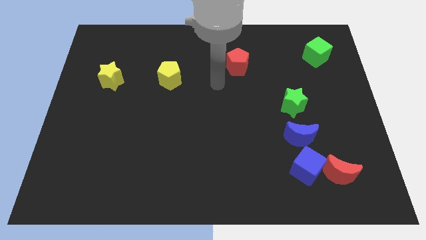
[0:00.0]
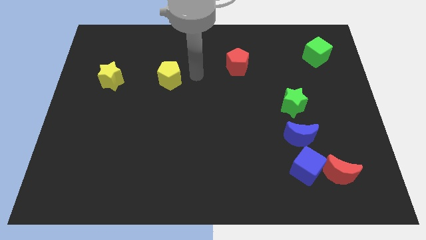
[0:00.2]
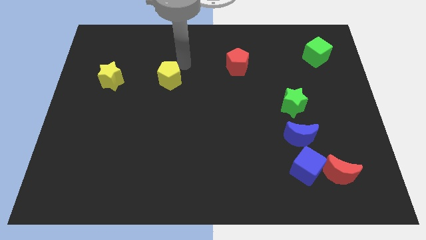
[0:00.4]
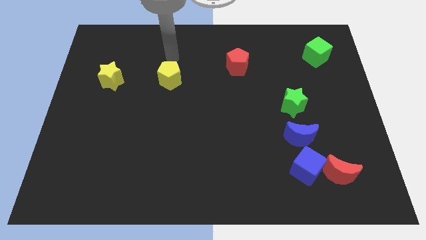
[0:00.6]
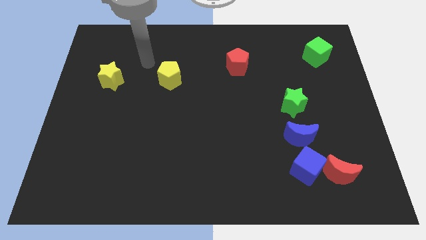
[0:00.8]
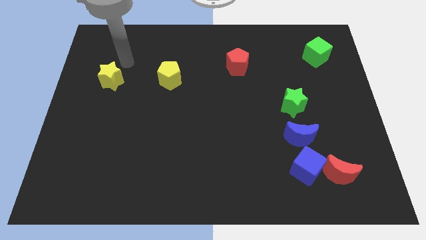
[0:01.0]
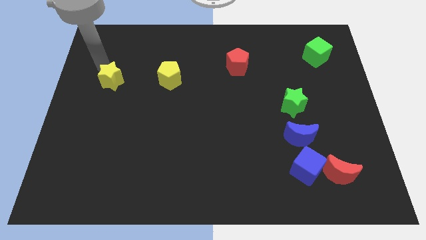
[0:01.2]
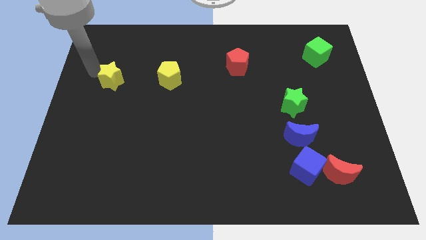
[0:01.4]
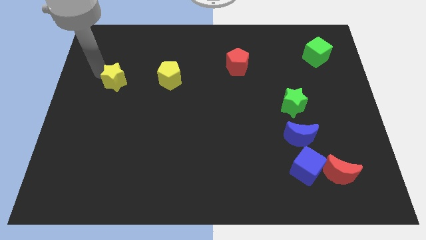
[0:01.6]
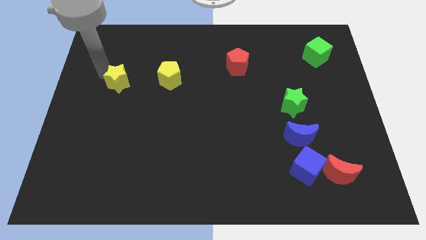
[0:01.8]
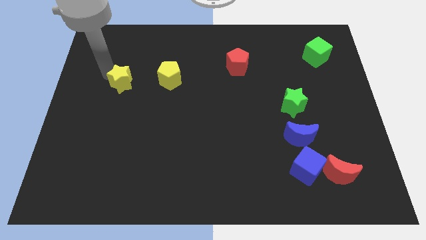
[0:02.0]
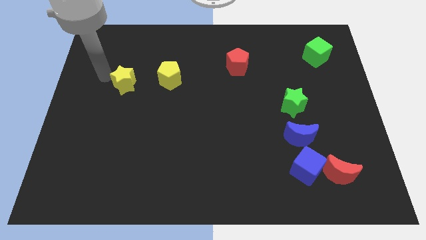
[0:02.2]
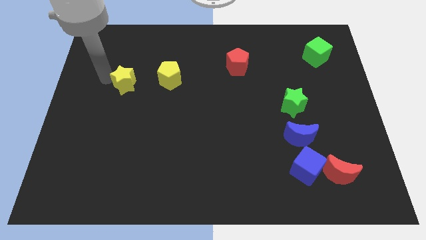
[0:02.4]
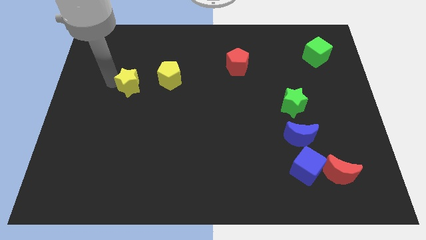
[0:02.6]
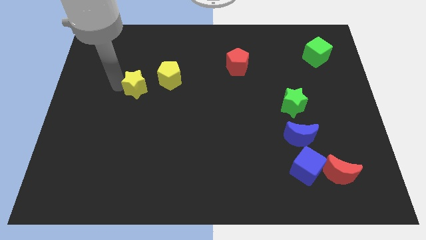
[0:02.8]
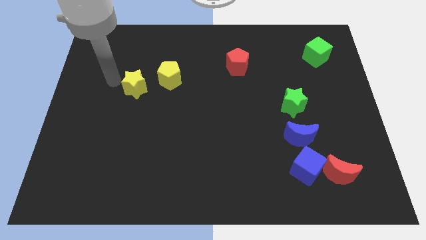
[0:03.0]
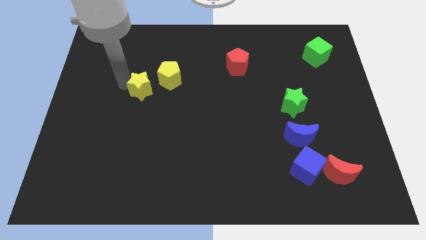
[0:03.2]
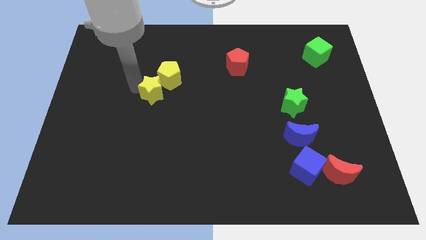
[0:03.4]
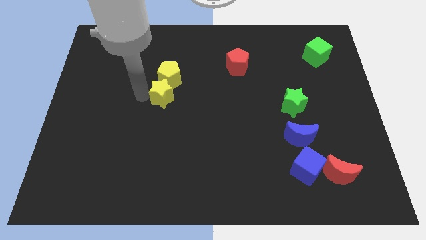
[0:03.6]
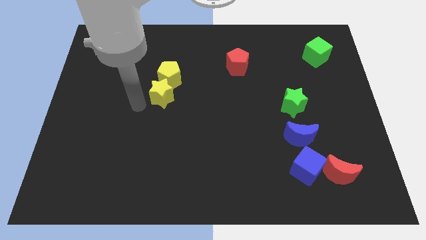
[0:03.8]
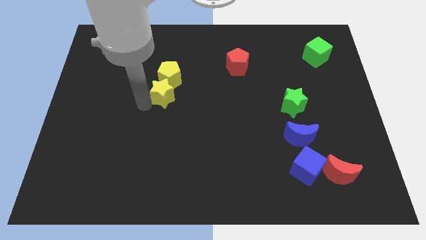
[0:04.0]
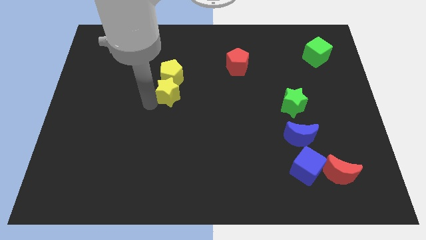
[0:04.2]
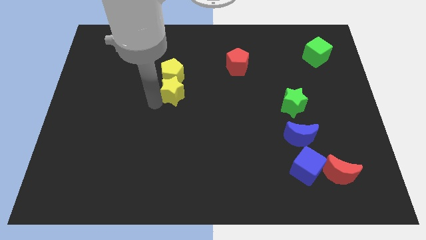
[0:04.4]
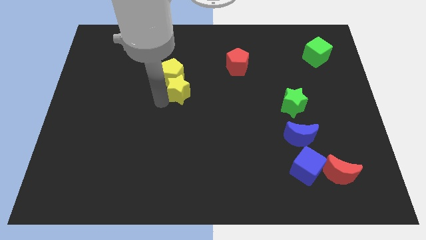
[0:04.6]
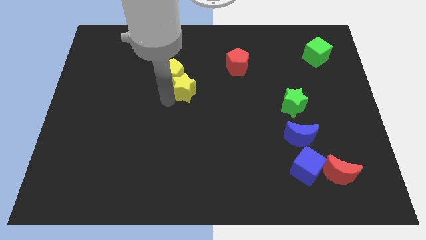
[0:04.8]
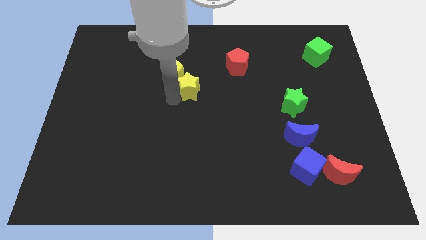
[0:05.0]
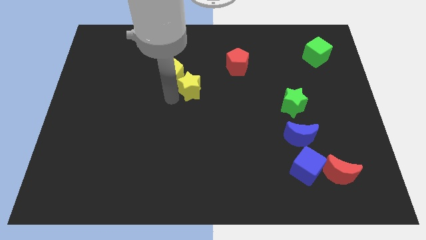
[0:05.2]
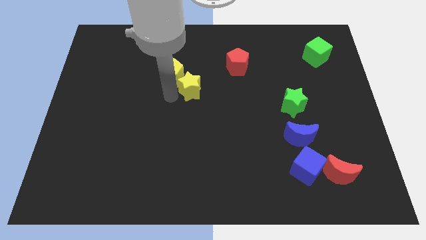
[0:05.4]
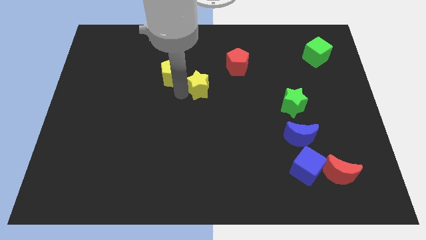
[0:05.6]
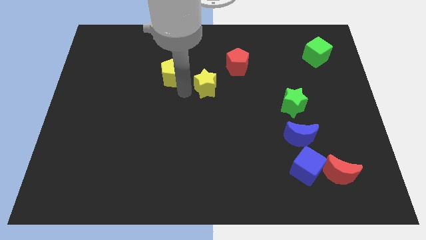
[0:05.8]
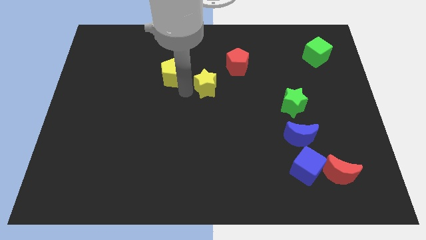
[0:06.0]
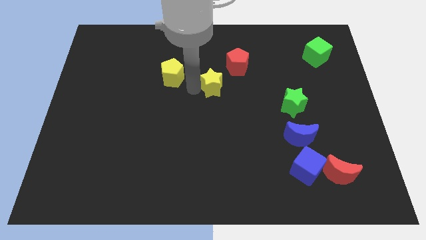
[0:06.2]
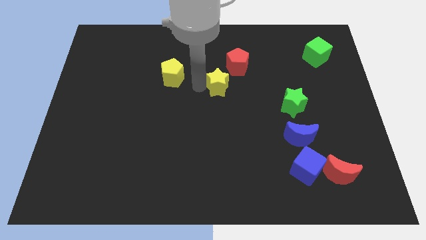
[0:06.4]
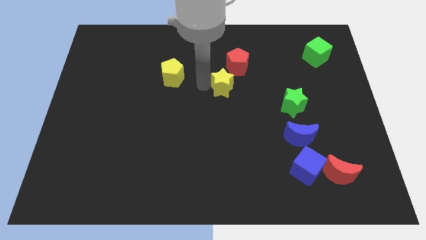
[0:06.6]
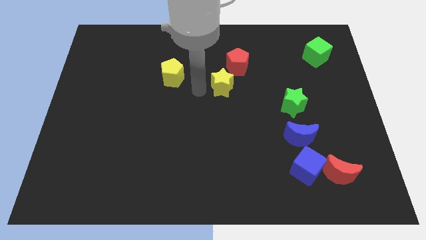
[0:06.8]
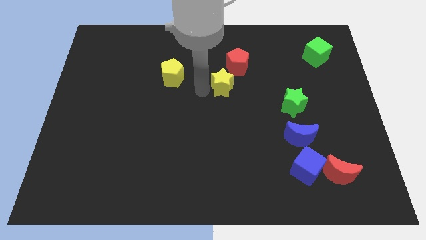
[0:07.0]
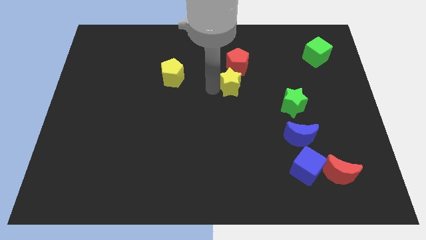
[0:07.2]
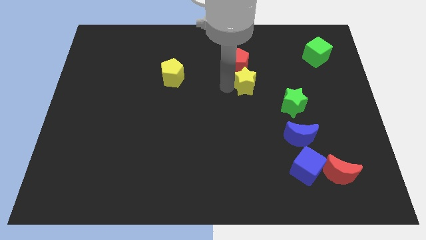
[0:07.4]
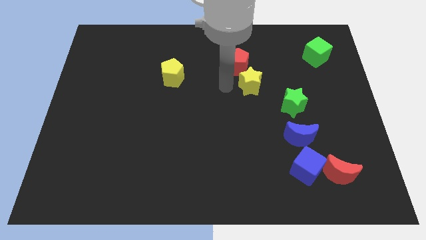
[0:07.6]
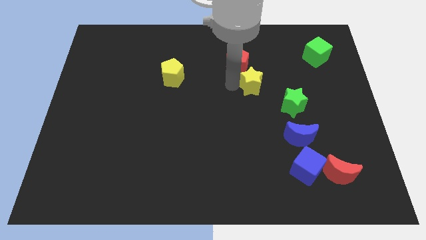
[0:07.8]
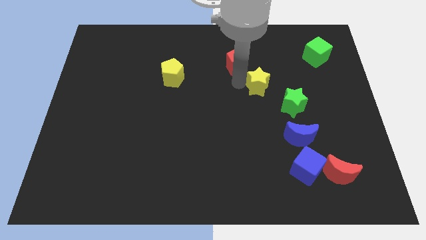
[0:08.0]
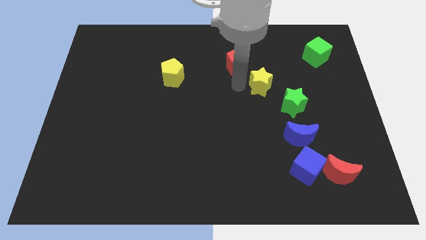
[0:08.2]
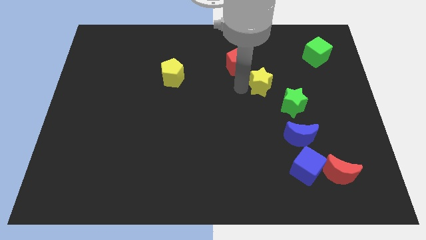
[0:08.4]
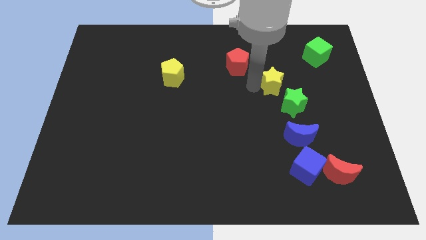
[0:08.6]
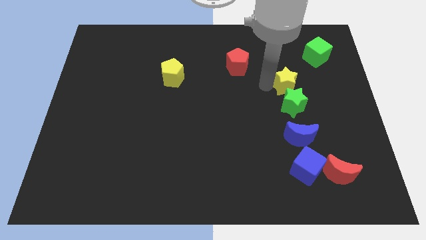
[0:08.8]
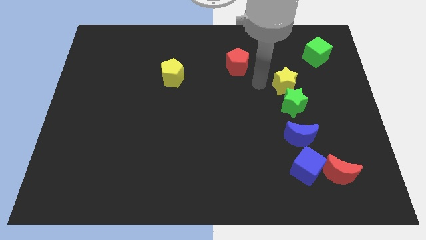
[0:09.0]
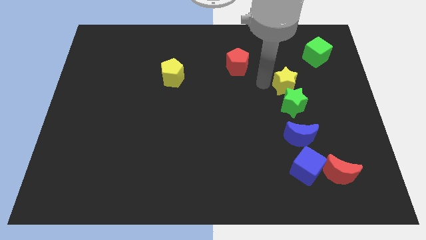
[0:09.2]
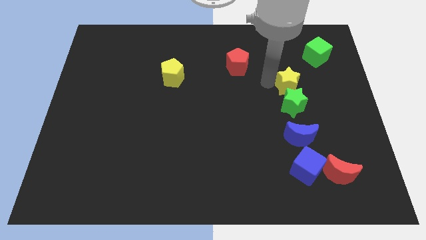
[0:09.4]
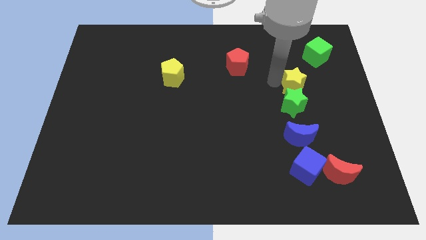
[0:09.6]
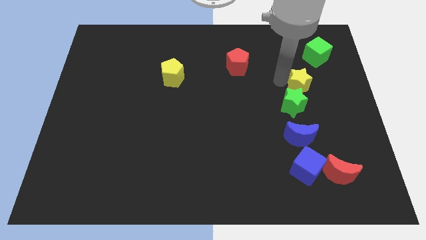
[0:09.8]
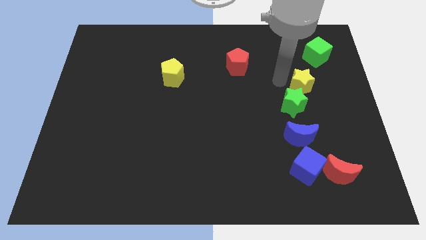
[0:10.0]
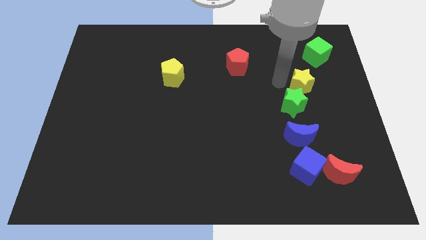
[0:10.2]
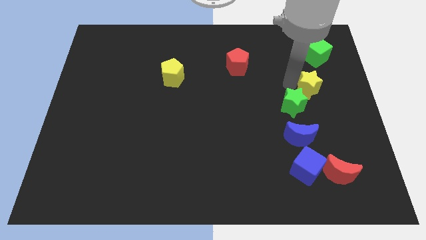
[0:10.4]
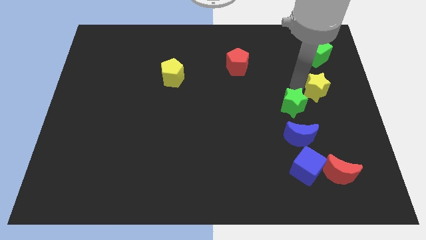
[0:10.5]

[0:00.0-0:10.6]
put the yellow star to the right side

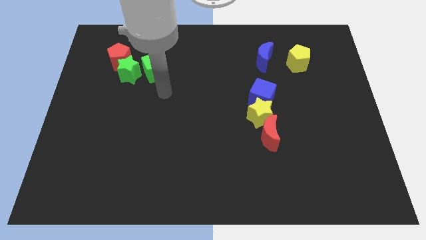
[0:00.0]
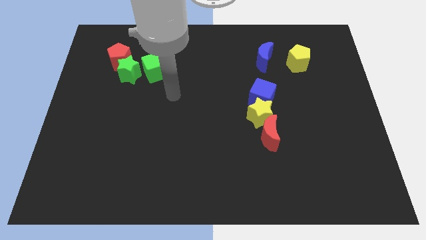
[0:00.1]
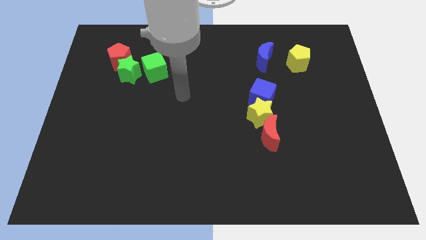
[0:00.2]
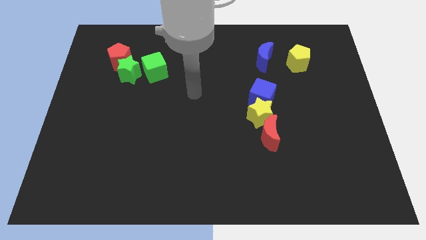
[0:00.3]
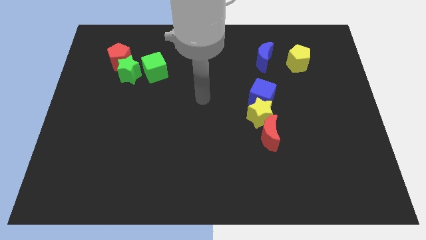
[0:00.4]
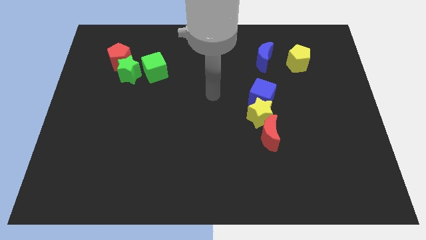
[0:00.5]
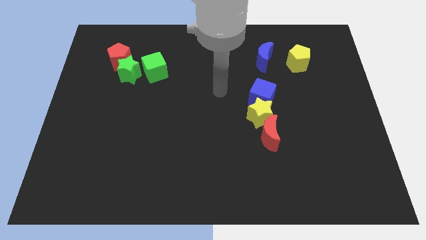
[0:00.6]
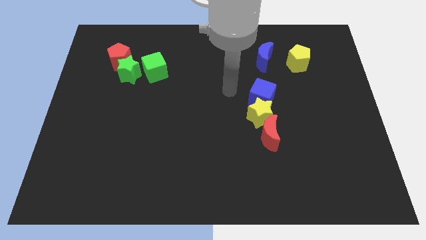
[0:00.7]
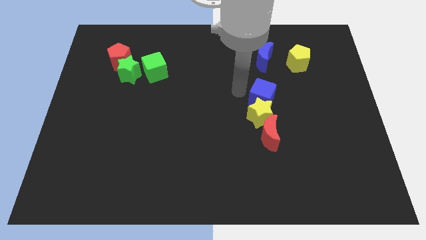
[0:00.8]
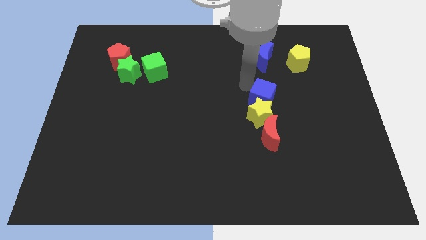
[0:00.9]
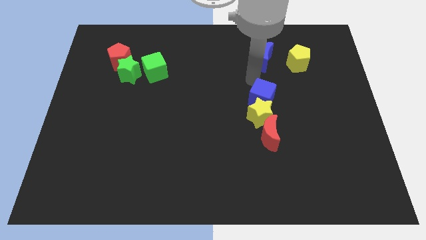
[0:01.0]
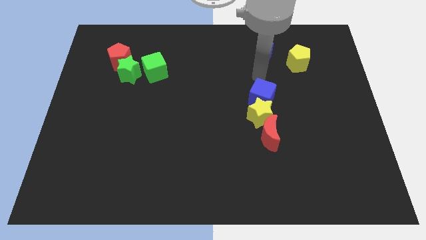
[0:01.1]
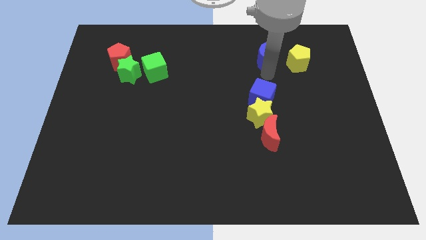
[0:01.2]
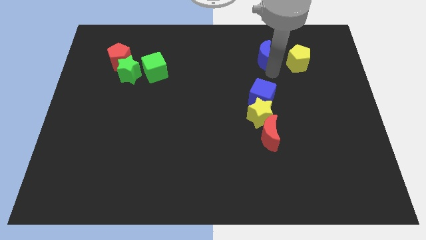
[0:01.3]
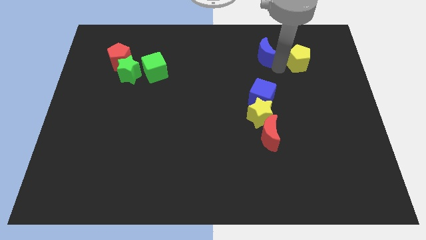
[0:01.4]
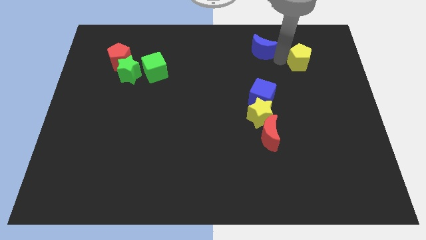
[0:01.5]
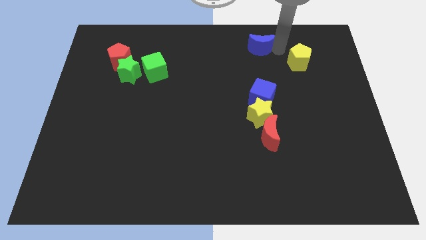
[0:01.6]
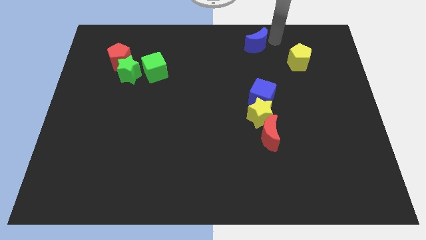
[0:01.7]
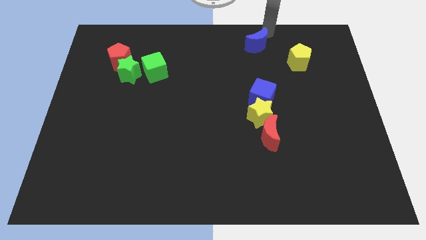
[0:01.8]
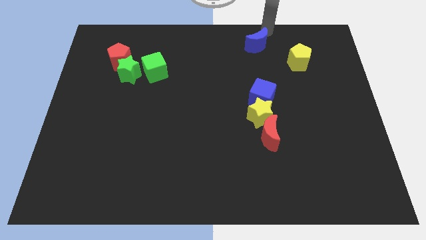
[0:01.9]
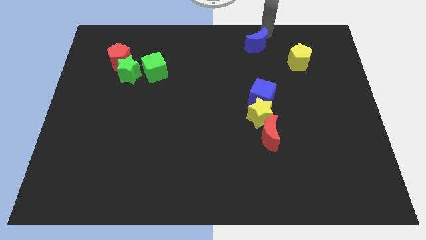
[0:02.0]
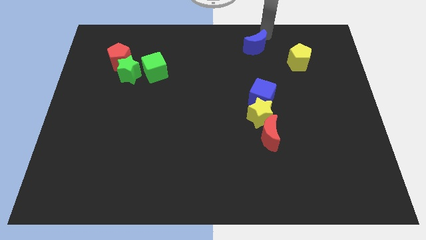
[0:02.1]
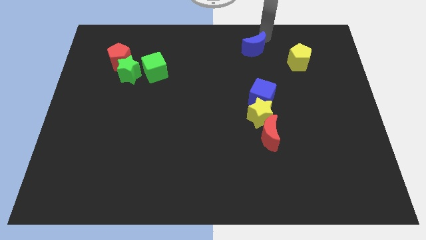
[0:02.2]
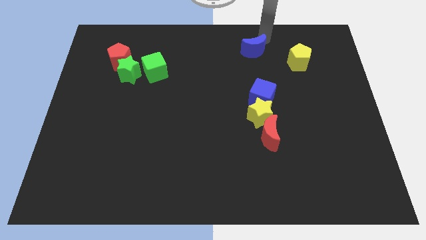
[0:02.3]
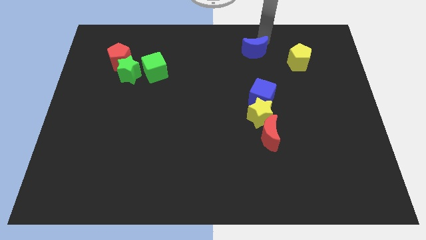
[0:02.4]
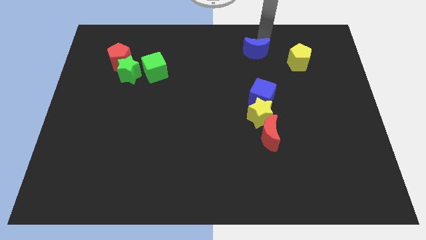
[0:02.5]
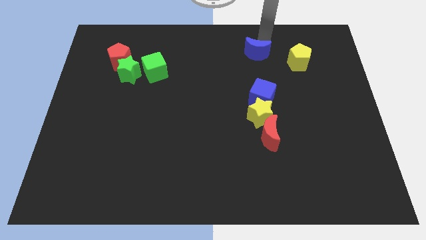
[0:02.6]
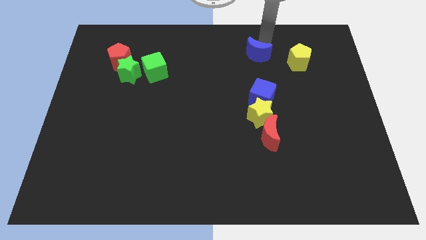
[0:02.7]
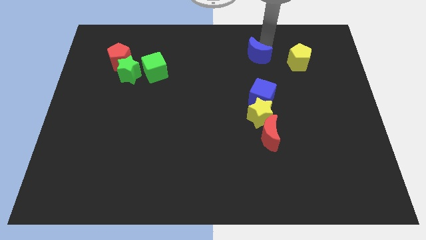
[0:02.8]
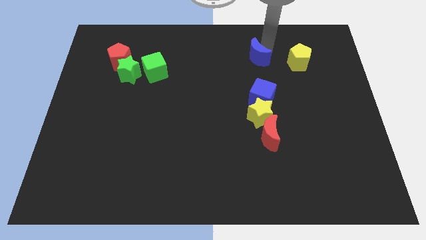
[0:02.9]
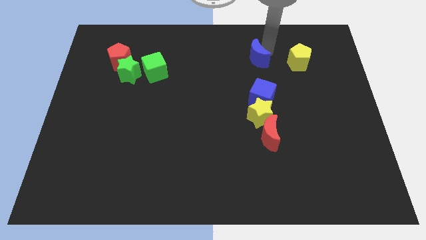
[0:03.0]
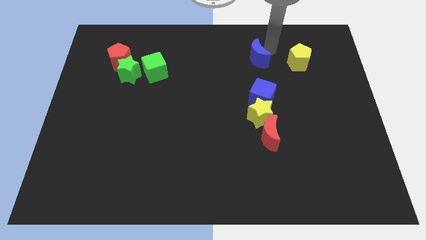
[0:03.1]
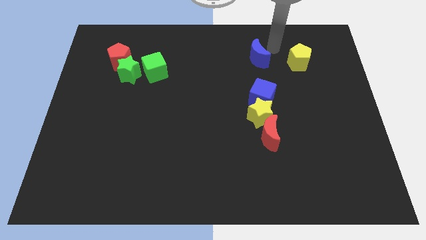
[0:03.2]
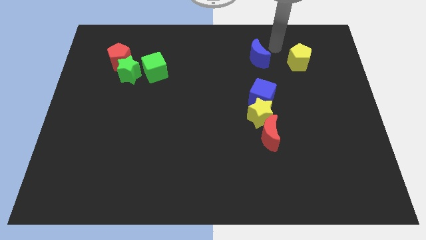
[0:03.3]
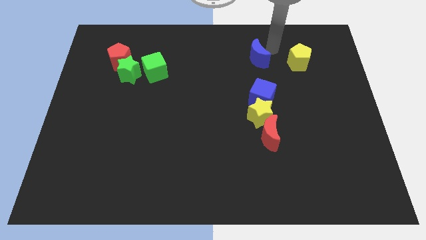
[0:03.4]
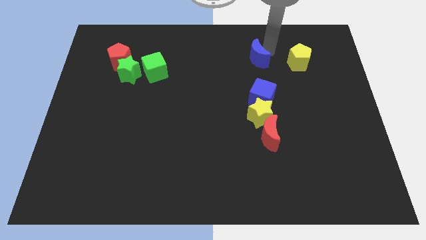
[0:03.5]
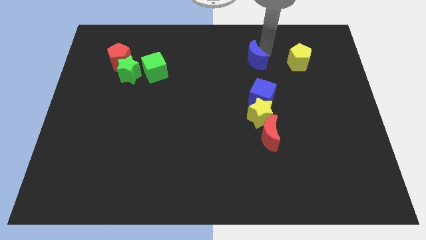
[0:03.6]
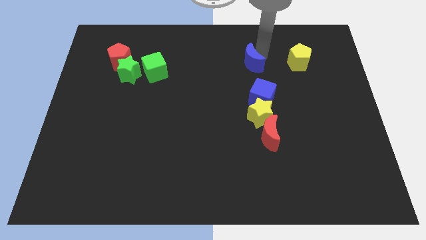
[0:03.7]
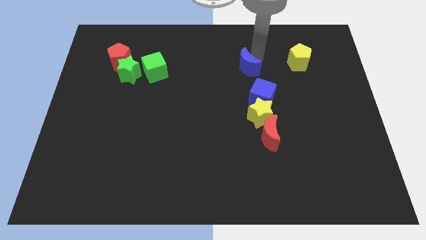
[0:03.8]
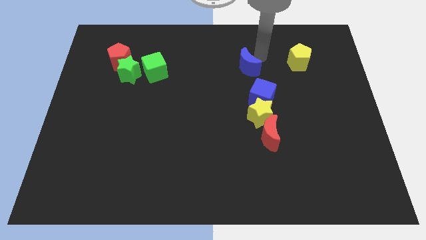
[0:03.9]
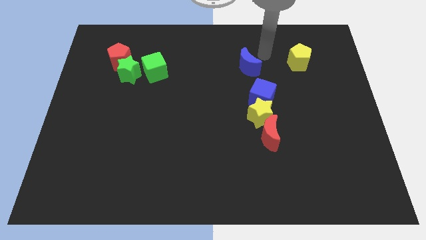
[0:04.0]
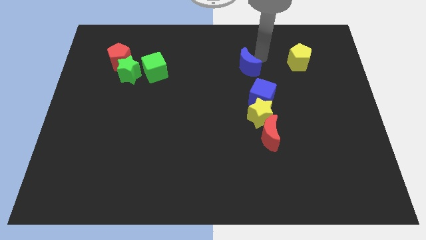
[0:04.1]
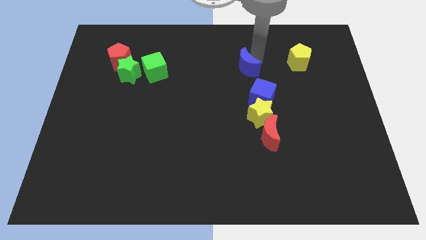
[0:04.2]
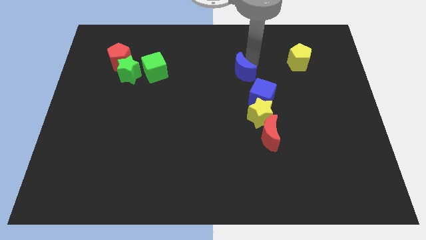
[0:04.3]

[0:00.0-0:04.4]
push the blue moon to the middle of the board
